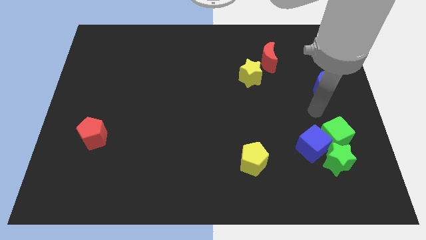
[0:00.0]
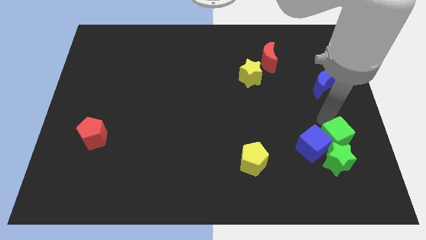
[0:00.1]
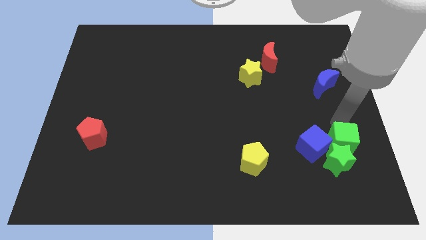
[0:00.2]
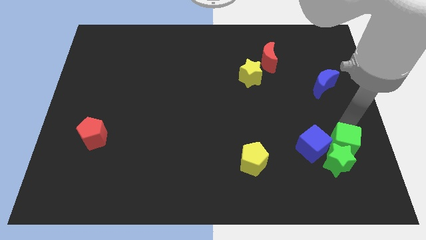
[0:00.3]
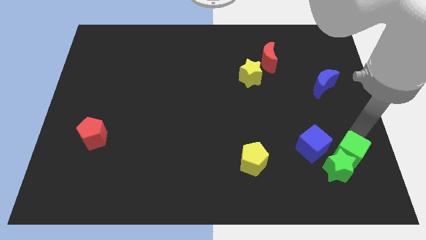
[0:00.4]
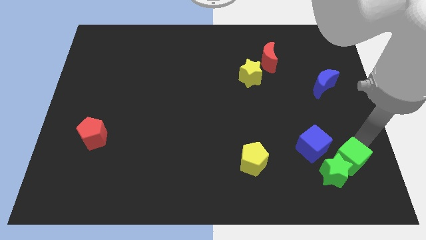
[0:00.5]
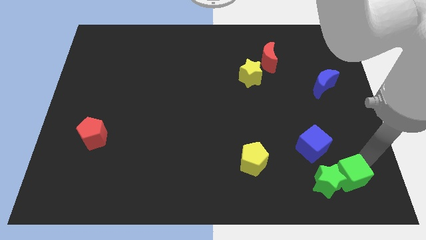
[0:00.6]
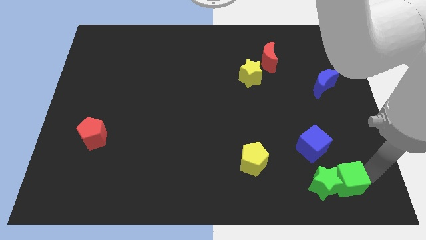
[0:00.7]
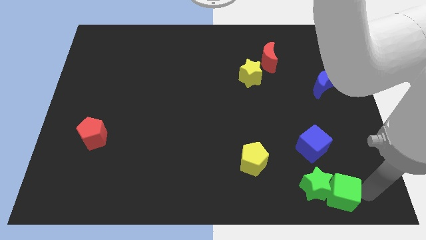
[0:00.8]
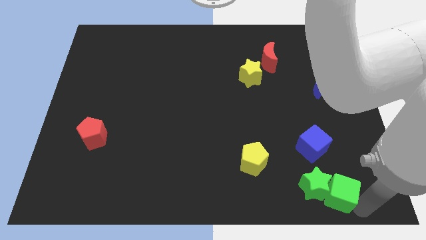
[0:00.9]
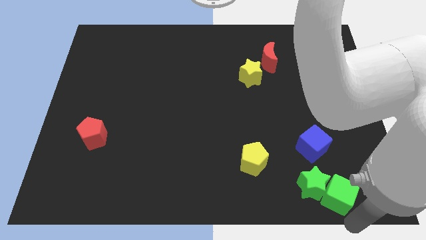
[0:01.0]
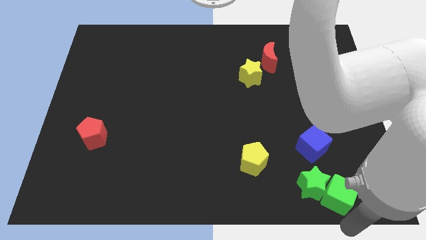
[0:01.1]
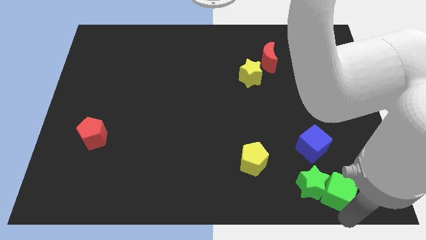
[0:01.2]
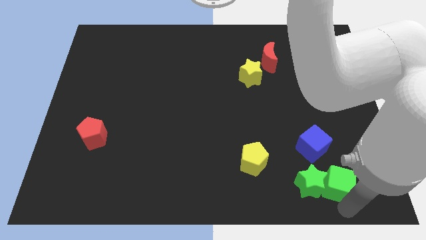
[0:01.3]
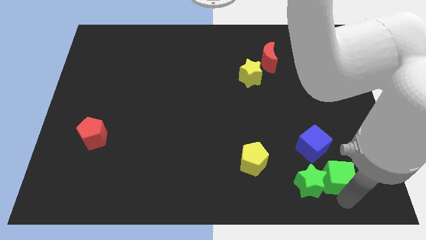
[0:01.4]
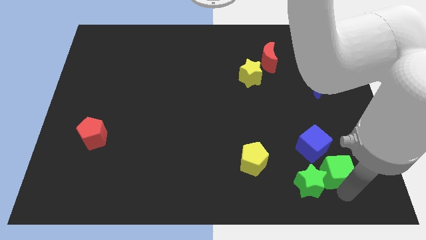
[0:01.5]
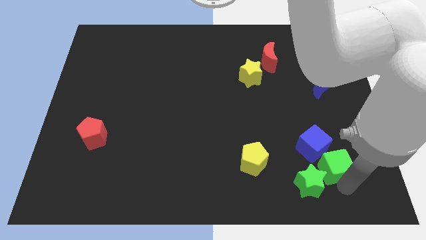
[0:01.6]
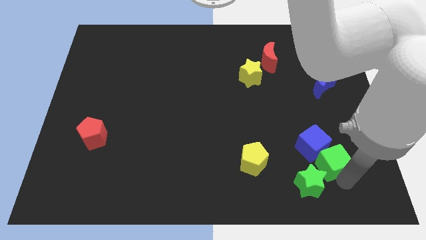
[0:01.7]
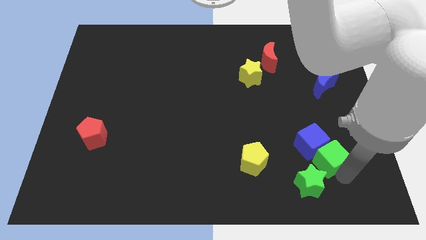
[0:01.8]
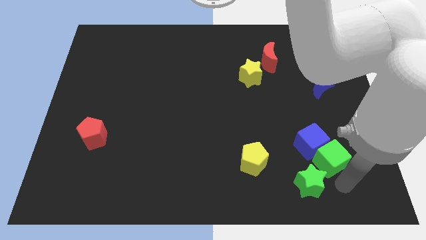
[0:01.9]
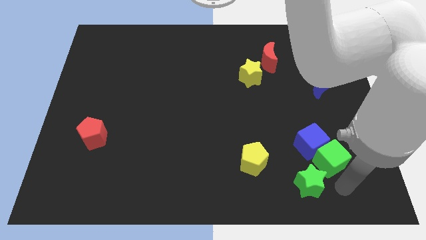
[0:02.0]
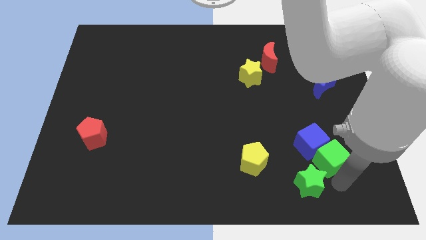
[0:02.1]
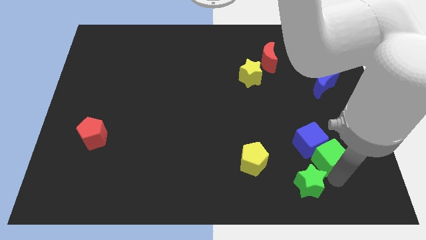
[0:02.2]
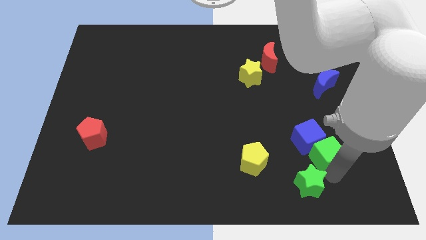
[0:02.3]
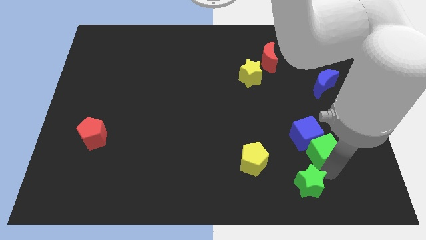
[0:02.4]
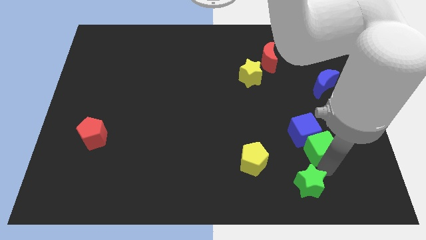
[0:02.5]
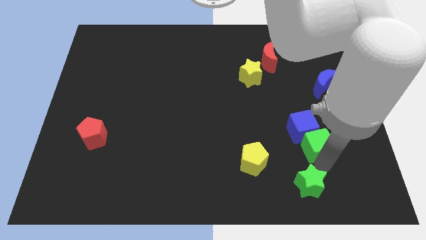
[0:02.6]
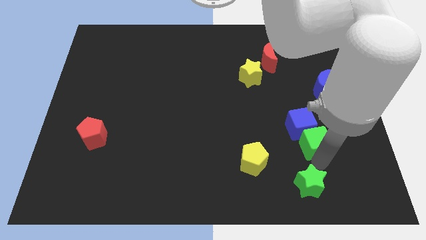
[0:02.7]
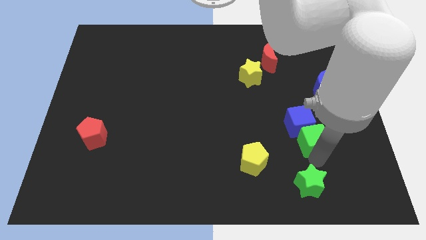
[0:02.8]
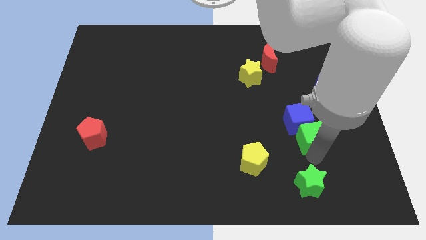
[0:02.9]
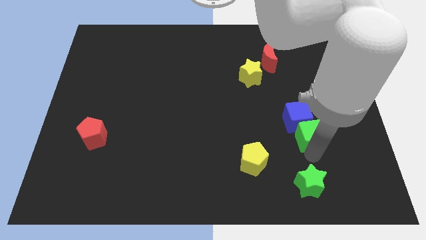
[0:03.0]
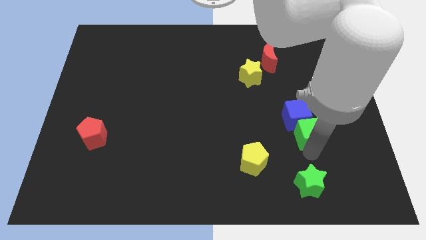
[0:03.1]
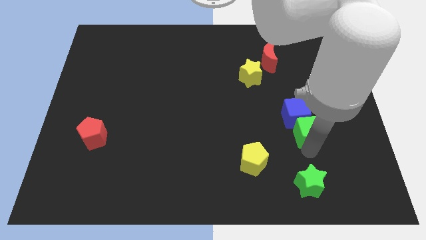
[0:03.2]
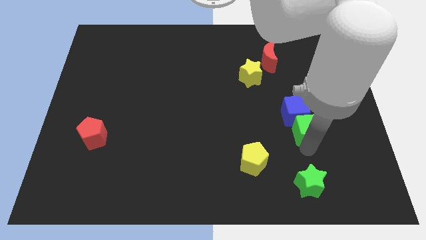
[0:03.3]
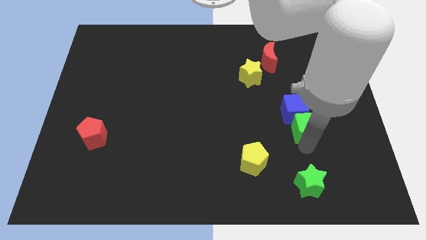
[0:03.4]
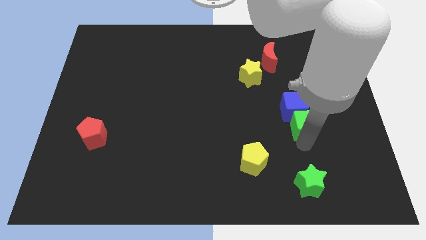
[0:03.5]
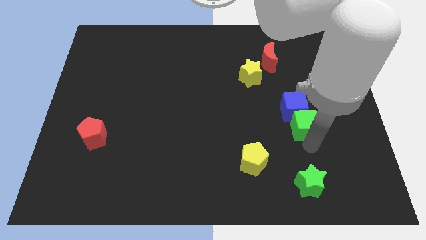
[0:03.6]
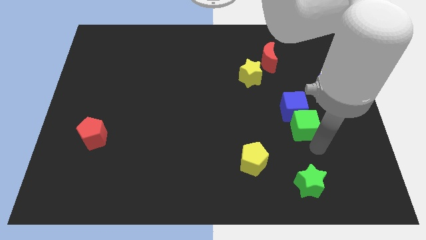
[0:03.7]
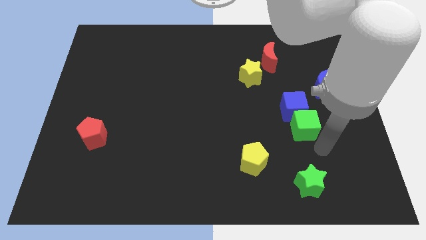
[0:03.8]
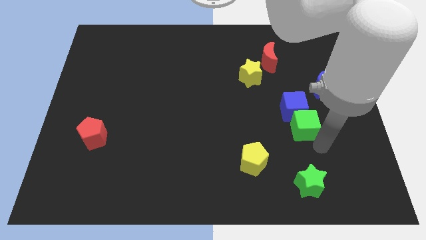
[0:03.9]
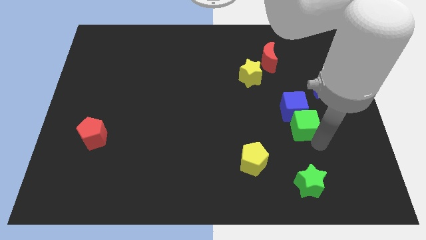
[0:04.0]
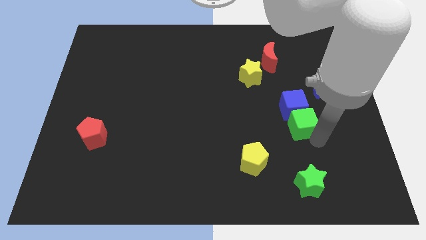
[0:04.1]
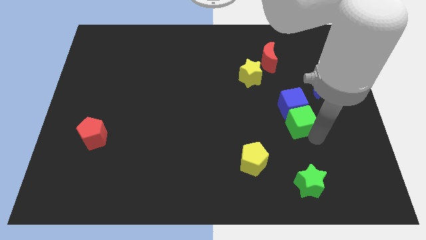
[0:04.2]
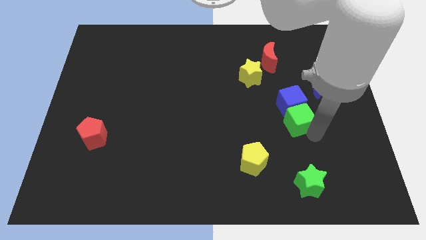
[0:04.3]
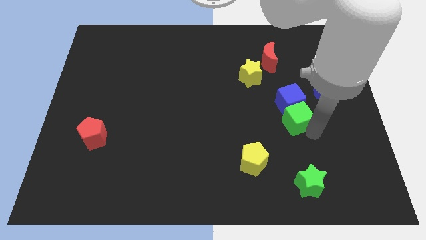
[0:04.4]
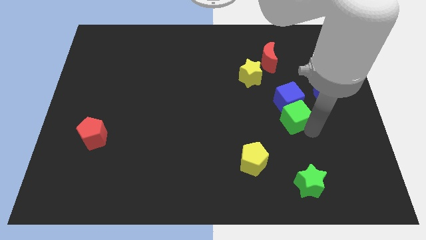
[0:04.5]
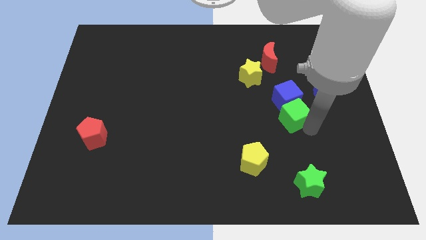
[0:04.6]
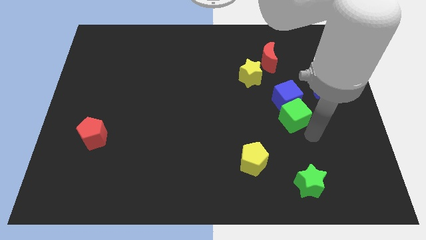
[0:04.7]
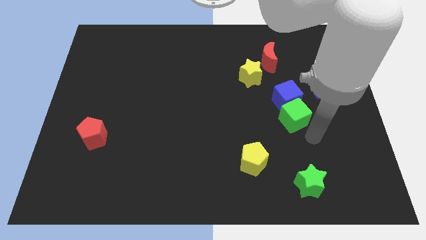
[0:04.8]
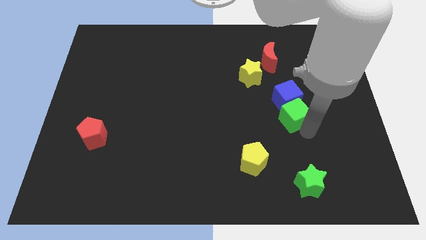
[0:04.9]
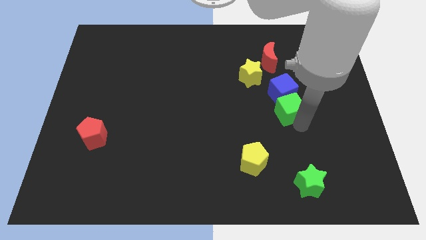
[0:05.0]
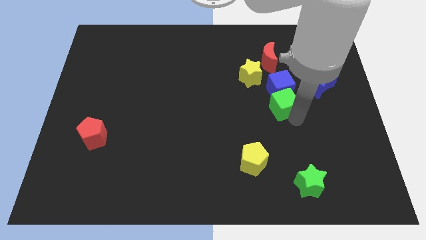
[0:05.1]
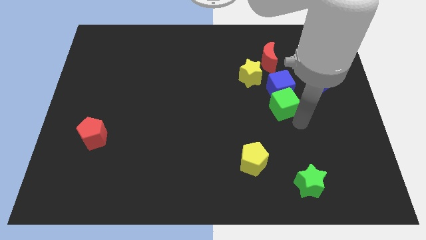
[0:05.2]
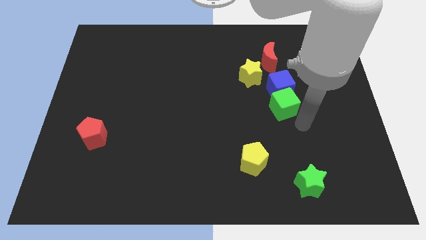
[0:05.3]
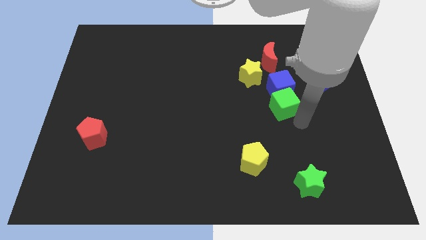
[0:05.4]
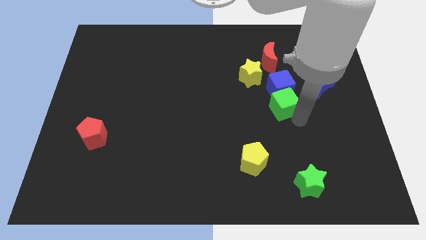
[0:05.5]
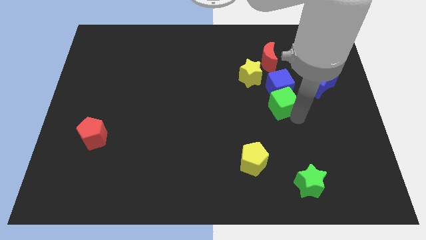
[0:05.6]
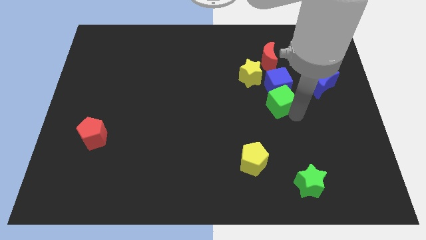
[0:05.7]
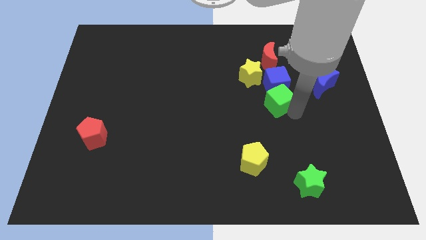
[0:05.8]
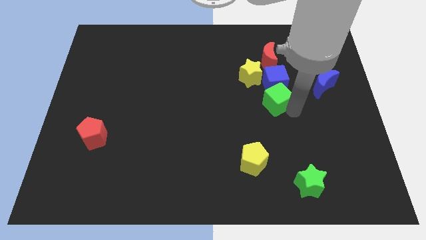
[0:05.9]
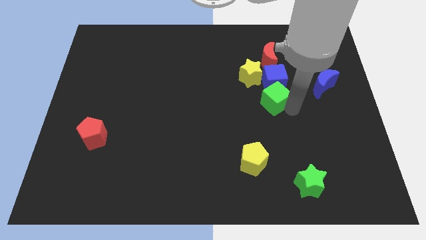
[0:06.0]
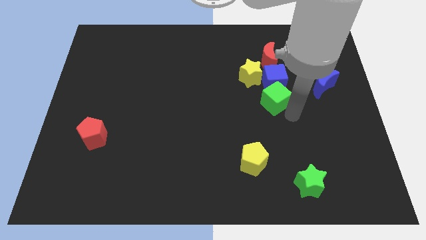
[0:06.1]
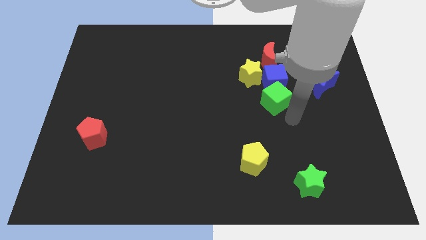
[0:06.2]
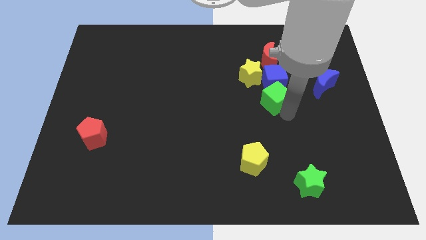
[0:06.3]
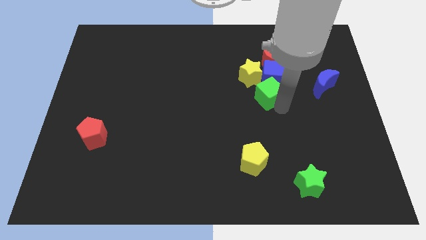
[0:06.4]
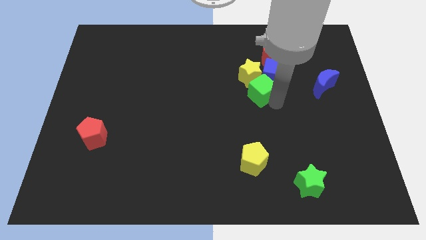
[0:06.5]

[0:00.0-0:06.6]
put the green cube next to the yellow star
